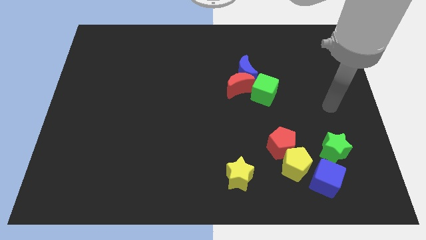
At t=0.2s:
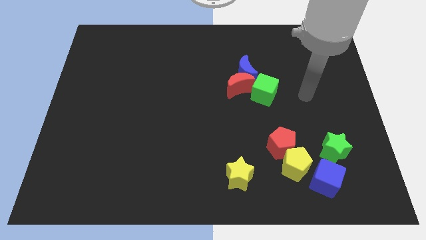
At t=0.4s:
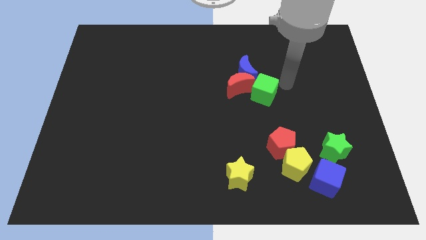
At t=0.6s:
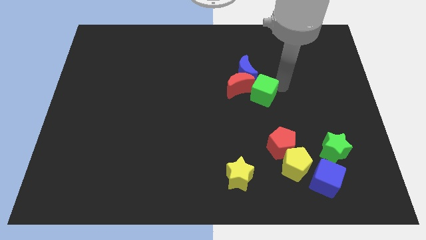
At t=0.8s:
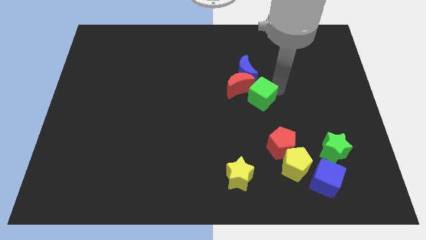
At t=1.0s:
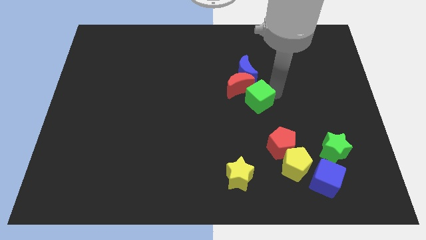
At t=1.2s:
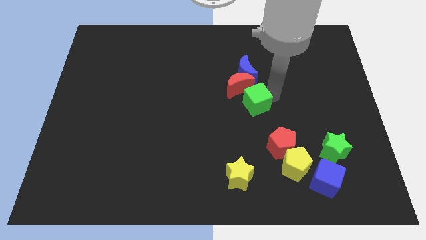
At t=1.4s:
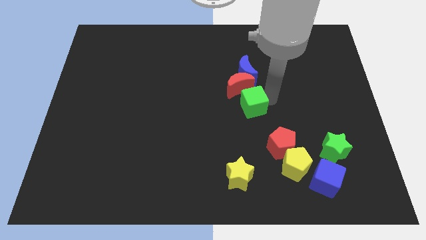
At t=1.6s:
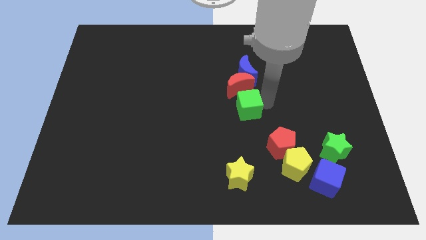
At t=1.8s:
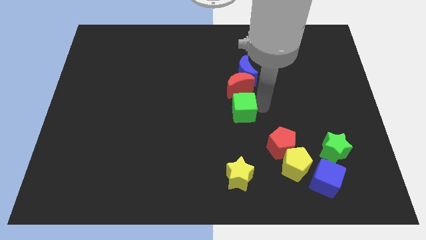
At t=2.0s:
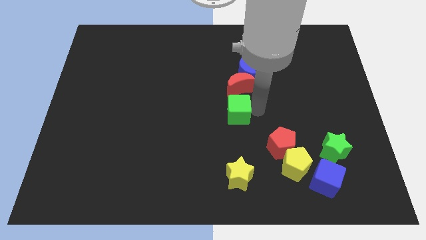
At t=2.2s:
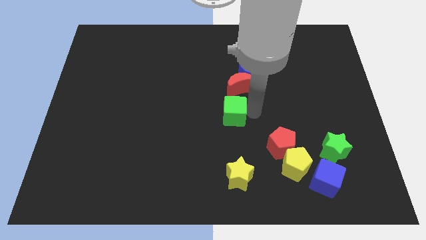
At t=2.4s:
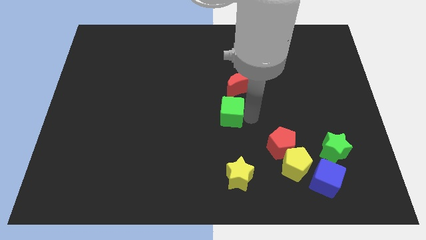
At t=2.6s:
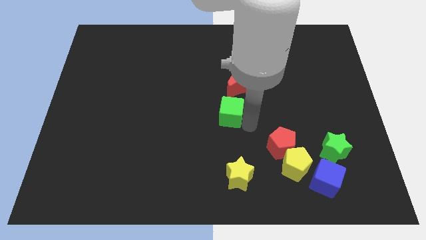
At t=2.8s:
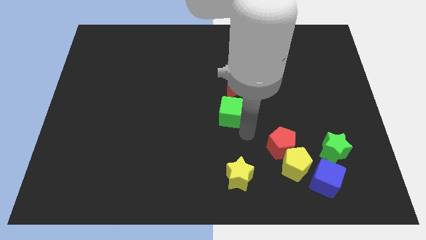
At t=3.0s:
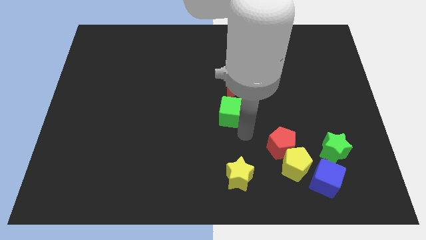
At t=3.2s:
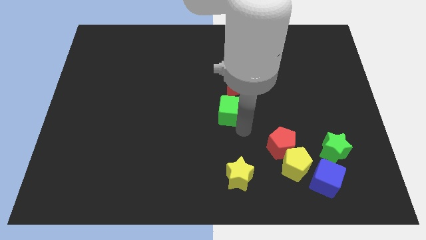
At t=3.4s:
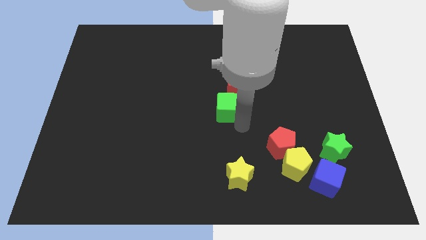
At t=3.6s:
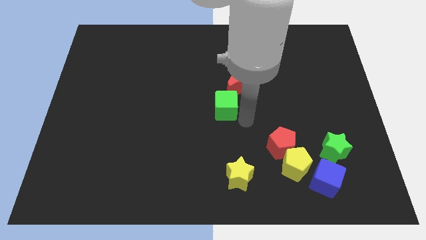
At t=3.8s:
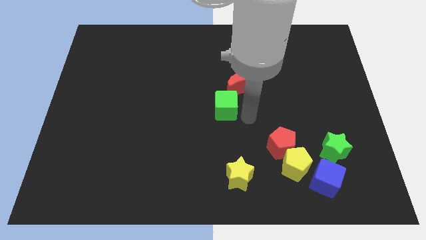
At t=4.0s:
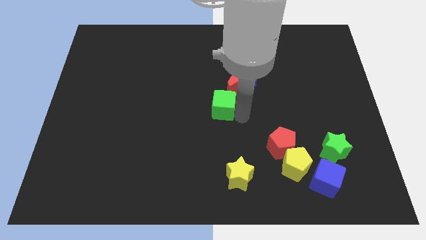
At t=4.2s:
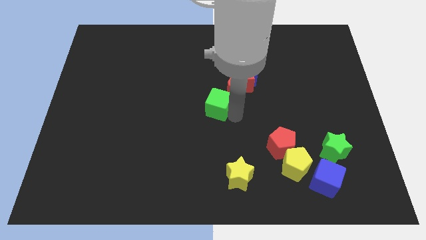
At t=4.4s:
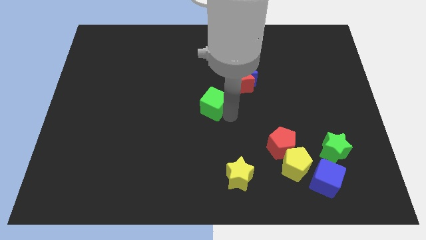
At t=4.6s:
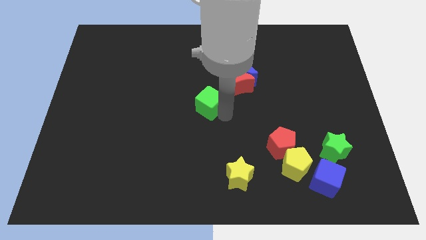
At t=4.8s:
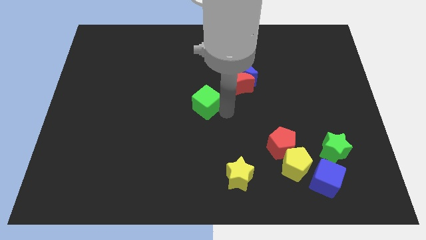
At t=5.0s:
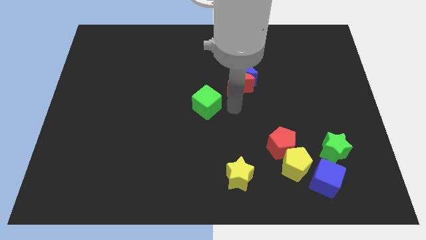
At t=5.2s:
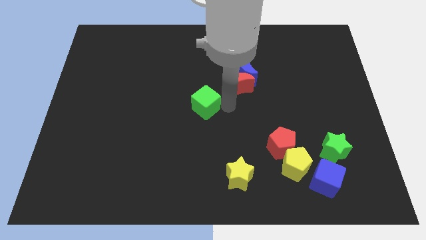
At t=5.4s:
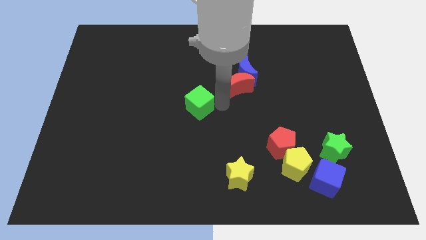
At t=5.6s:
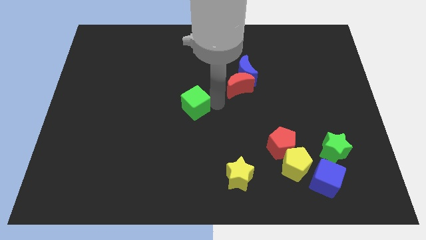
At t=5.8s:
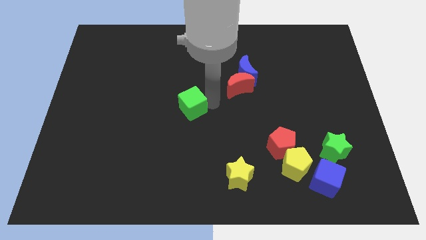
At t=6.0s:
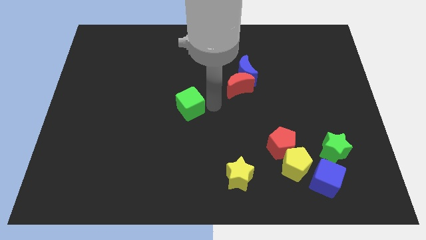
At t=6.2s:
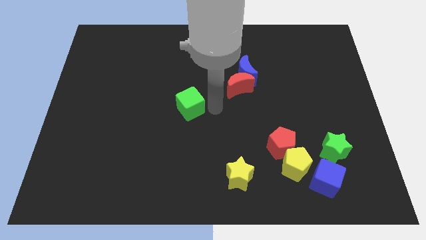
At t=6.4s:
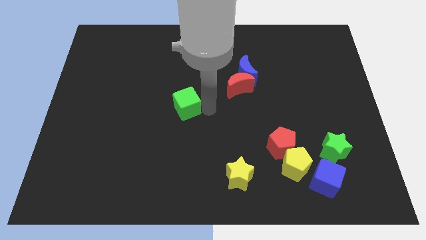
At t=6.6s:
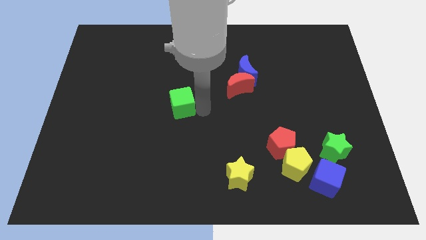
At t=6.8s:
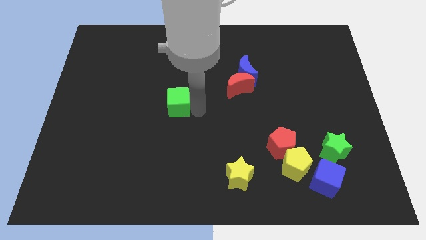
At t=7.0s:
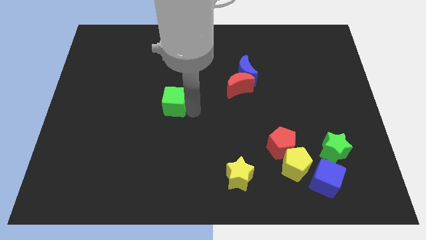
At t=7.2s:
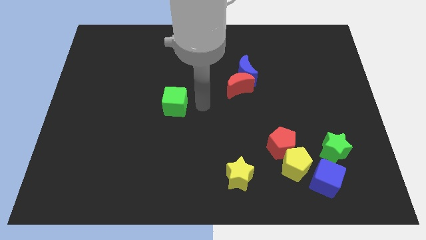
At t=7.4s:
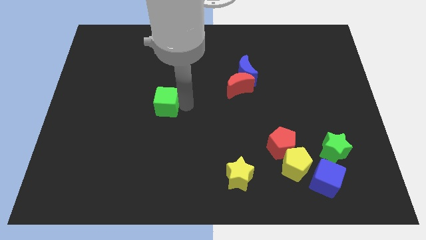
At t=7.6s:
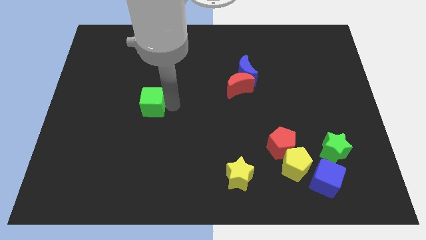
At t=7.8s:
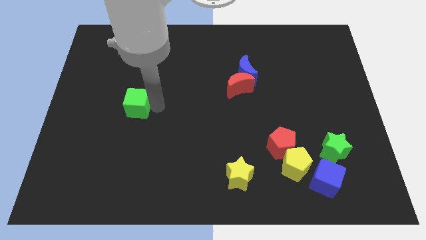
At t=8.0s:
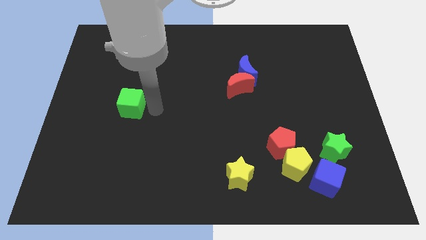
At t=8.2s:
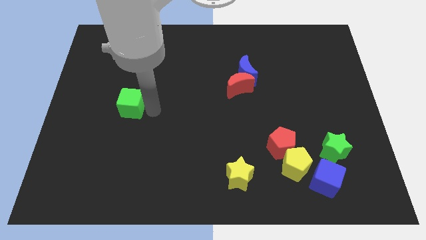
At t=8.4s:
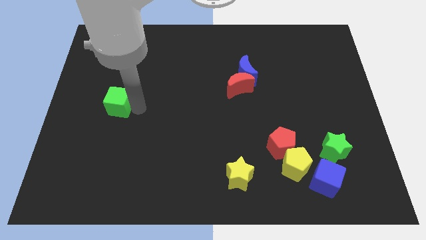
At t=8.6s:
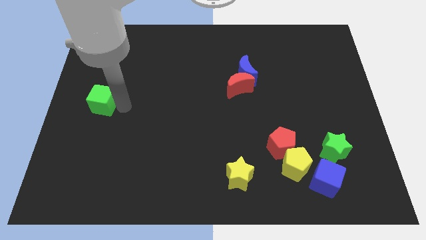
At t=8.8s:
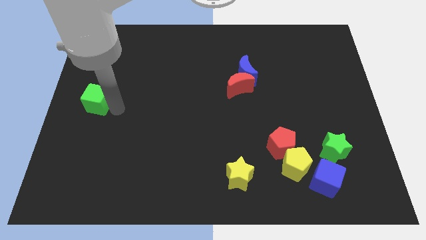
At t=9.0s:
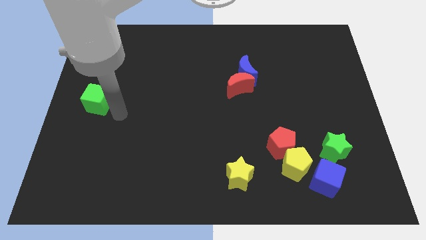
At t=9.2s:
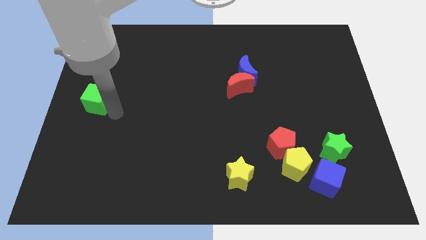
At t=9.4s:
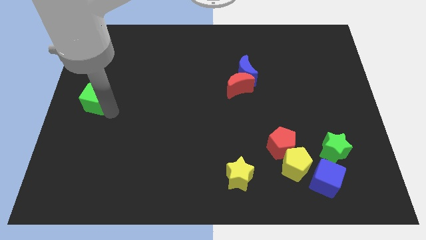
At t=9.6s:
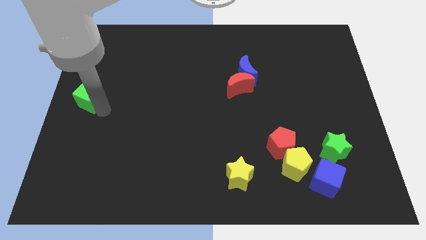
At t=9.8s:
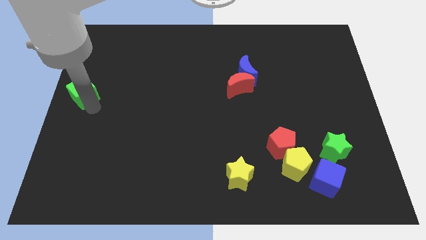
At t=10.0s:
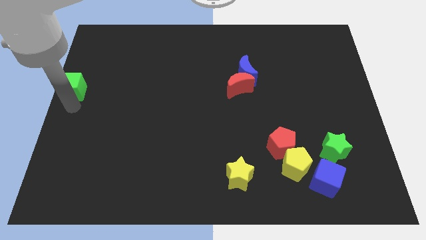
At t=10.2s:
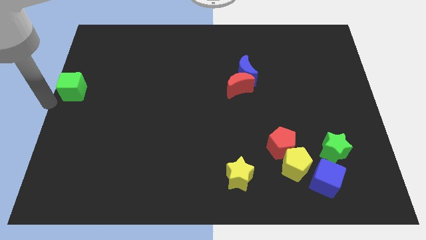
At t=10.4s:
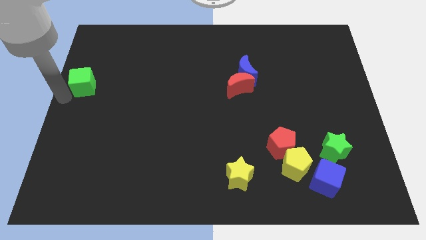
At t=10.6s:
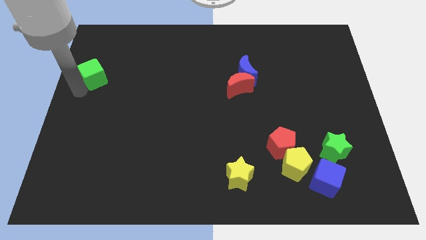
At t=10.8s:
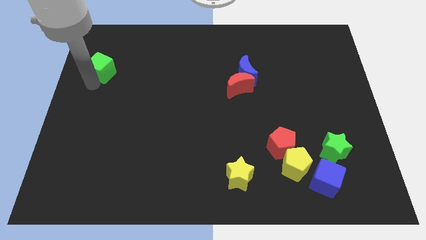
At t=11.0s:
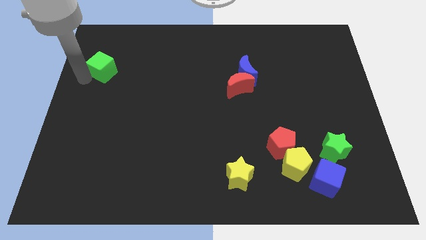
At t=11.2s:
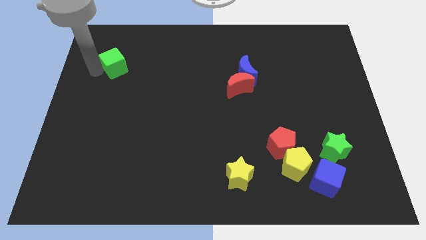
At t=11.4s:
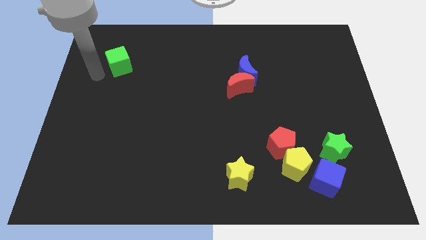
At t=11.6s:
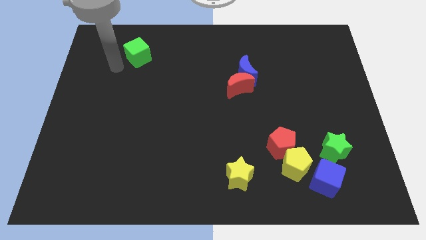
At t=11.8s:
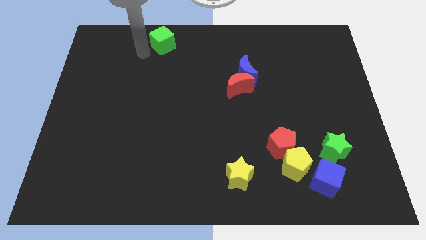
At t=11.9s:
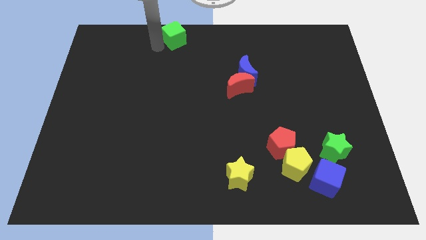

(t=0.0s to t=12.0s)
slide the green cube to the towards your base

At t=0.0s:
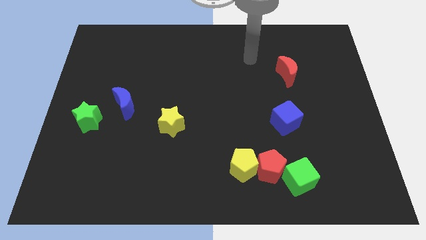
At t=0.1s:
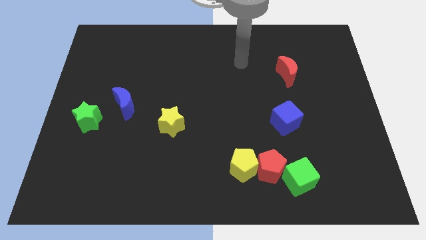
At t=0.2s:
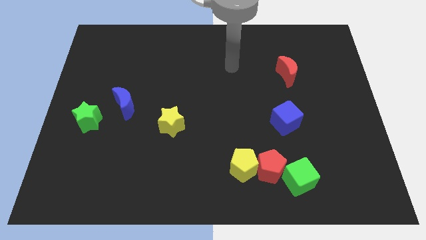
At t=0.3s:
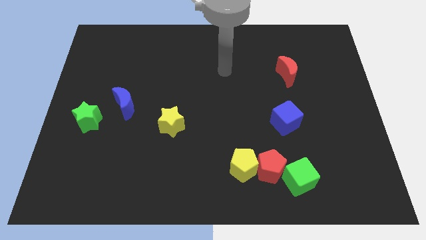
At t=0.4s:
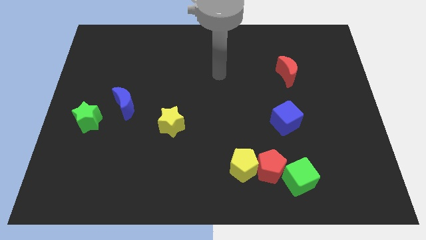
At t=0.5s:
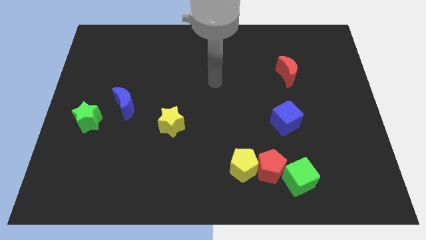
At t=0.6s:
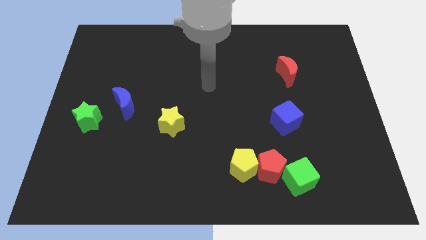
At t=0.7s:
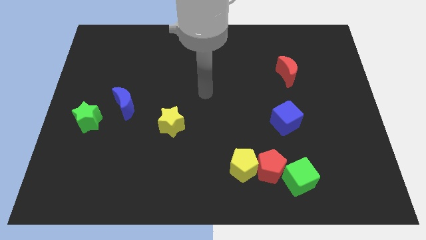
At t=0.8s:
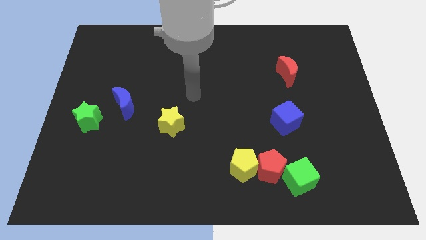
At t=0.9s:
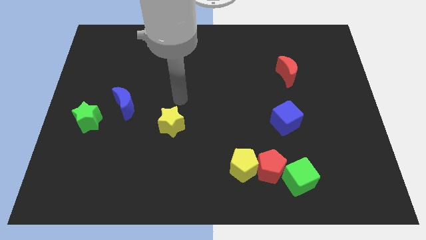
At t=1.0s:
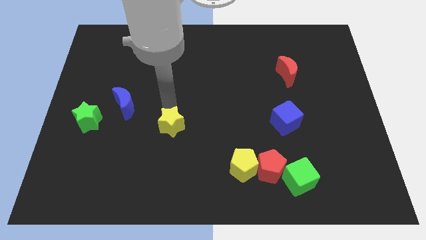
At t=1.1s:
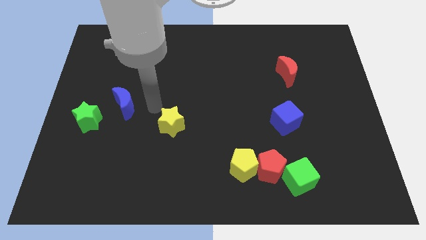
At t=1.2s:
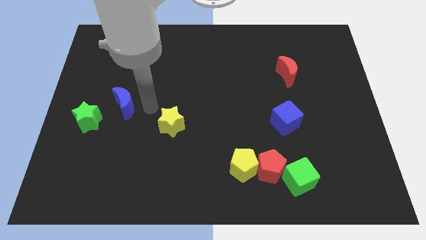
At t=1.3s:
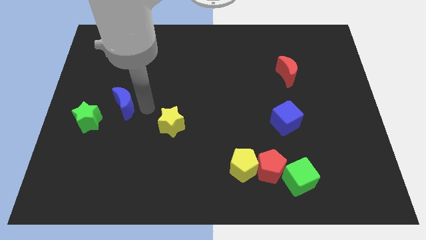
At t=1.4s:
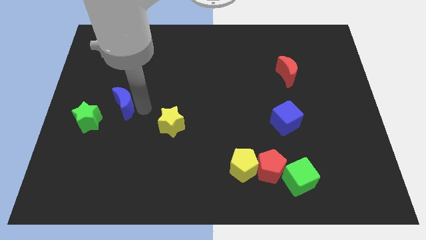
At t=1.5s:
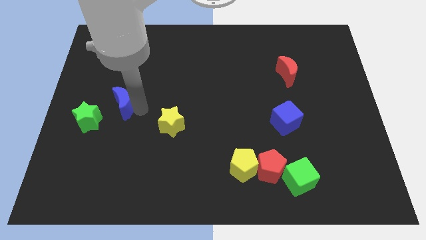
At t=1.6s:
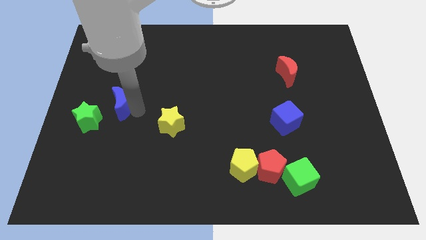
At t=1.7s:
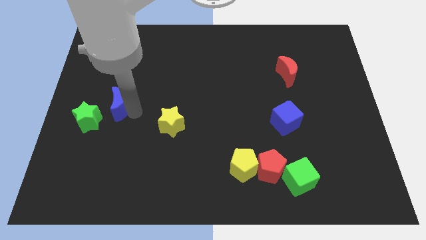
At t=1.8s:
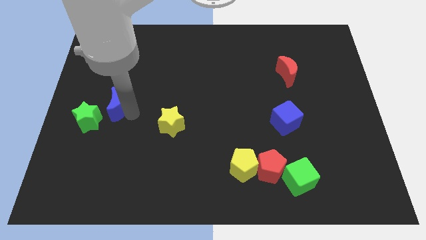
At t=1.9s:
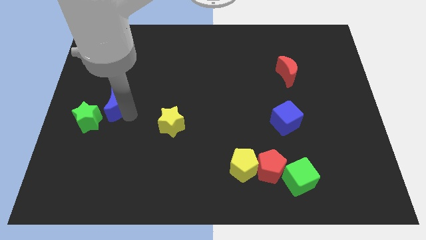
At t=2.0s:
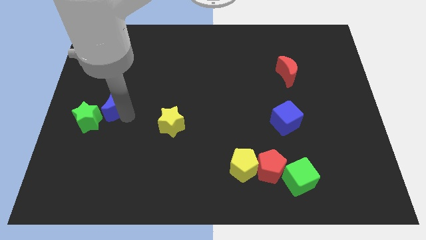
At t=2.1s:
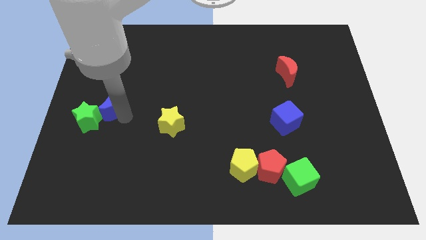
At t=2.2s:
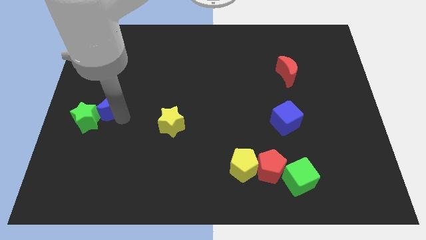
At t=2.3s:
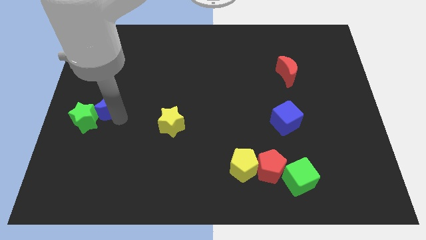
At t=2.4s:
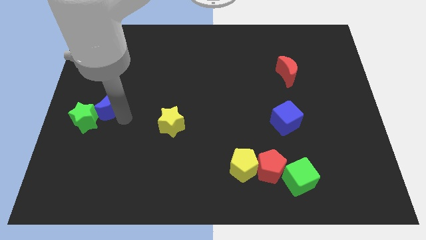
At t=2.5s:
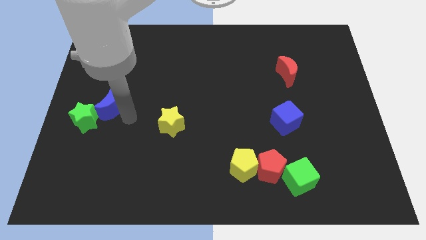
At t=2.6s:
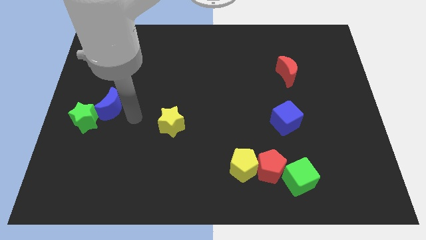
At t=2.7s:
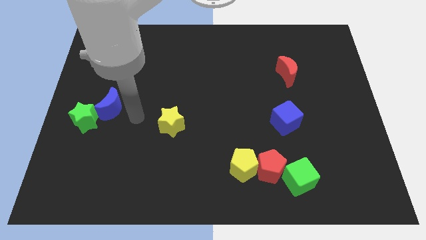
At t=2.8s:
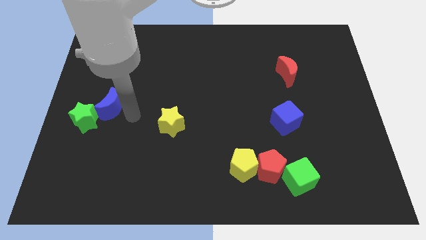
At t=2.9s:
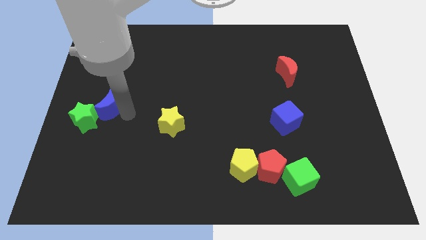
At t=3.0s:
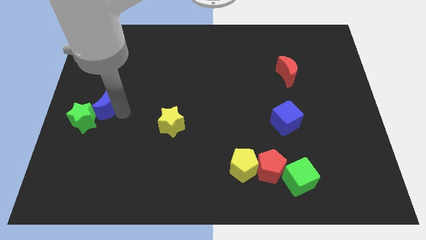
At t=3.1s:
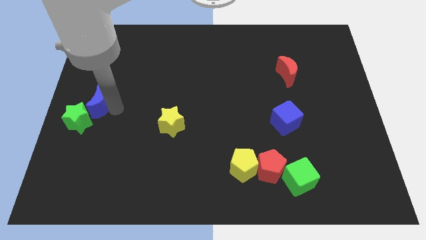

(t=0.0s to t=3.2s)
put the blue moon to the left side of the board
